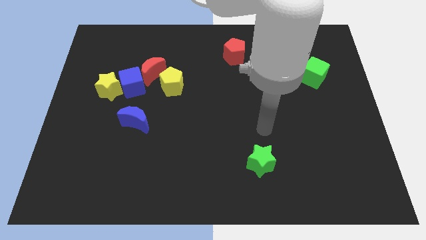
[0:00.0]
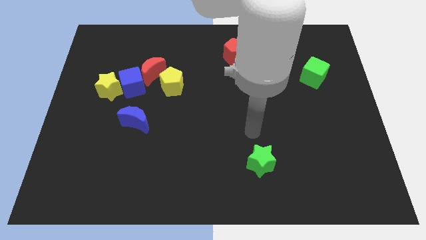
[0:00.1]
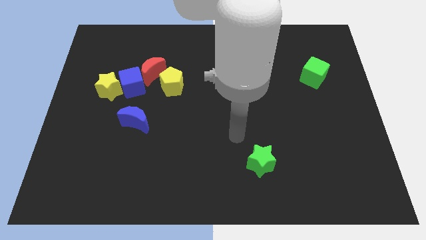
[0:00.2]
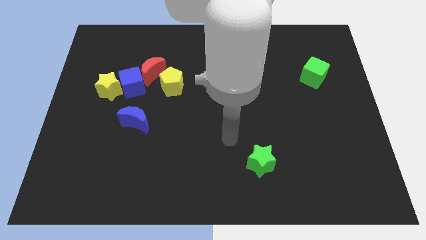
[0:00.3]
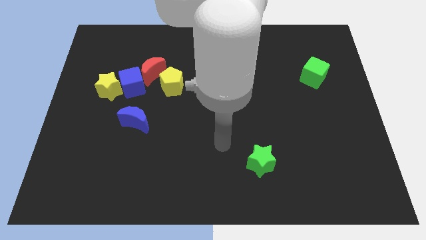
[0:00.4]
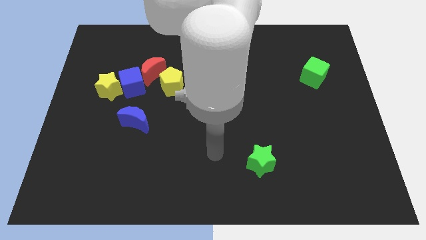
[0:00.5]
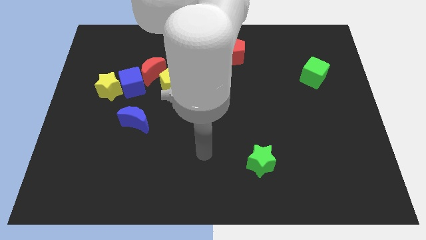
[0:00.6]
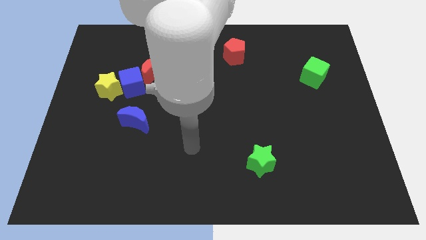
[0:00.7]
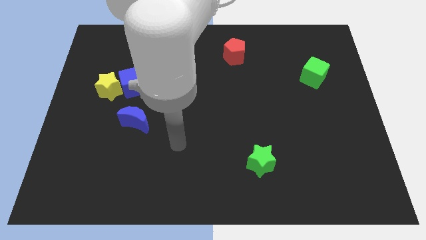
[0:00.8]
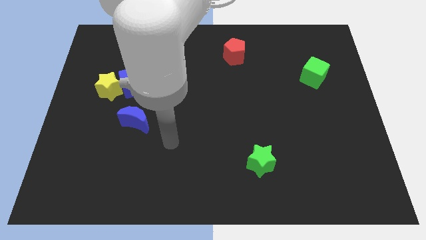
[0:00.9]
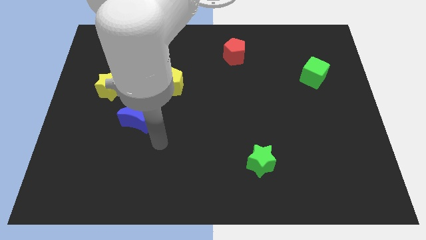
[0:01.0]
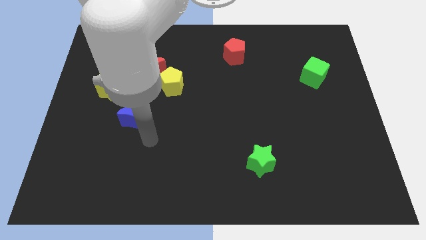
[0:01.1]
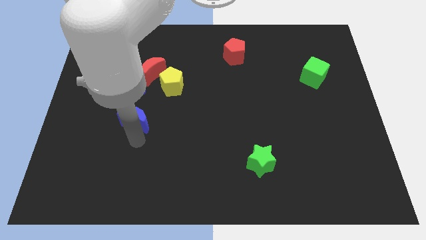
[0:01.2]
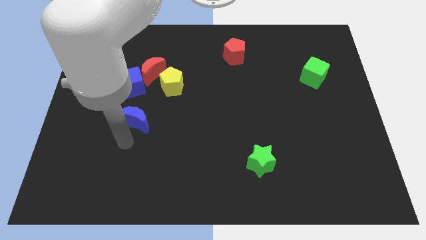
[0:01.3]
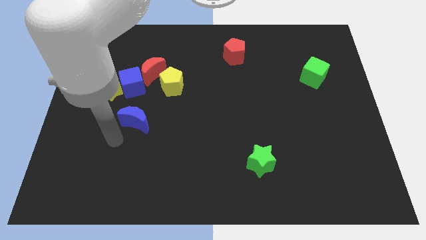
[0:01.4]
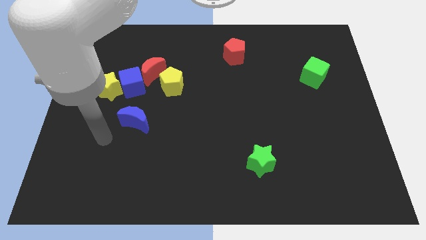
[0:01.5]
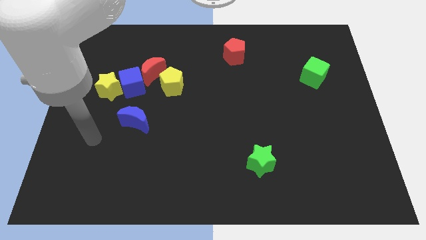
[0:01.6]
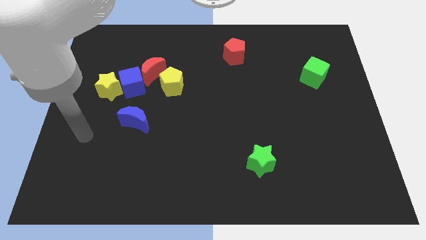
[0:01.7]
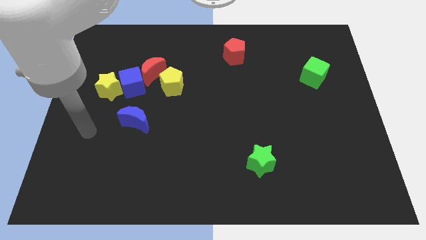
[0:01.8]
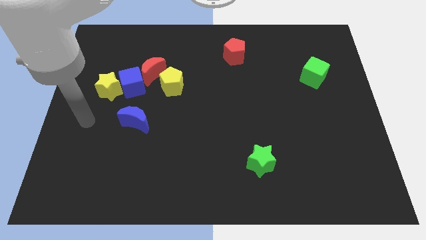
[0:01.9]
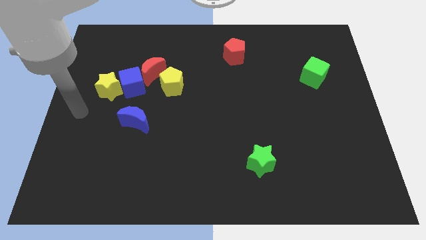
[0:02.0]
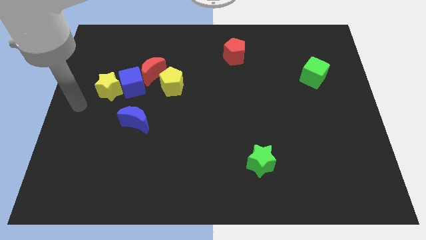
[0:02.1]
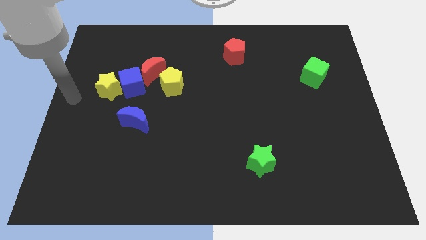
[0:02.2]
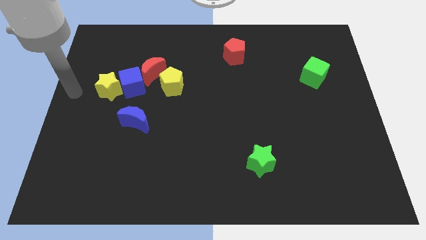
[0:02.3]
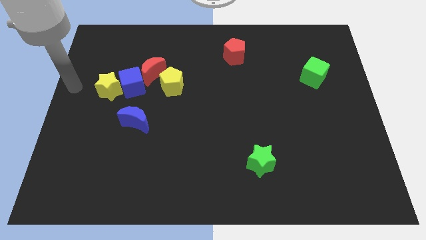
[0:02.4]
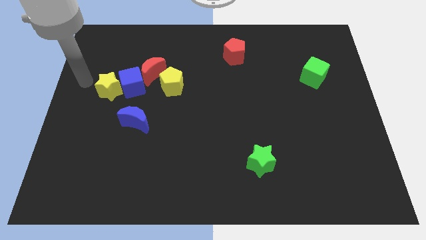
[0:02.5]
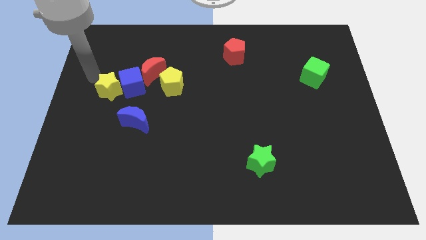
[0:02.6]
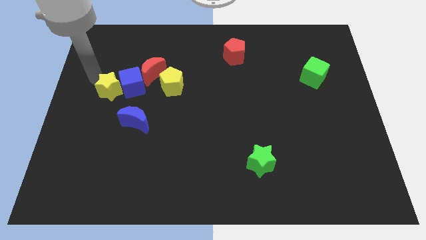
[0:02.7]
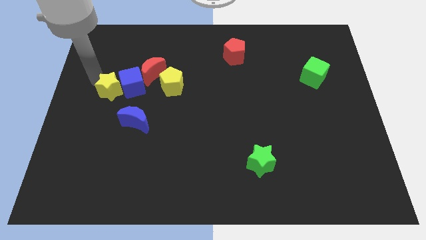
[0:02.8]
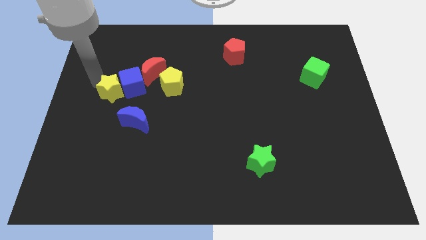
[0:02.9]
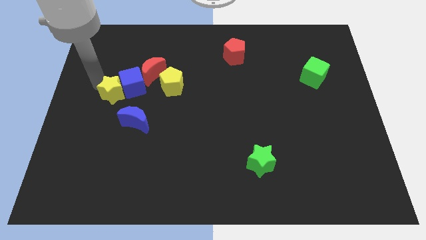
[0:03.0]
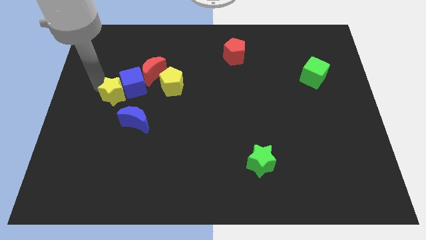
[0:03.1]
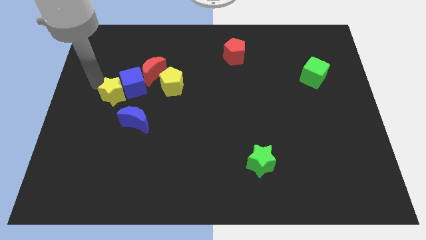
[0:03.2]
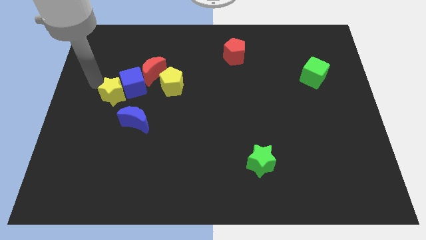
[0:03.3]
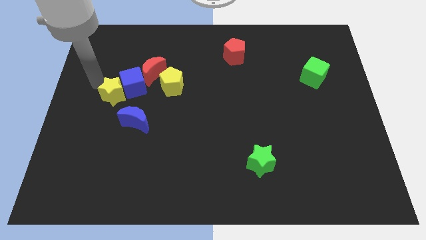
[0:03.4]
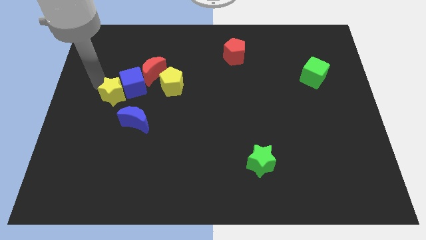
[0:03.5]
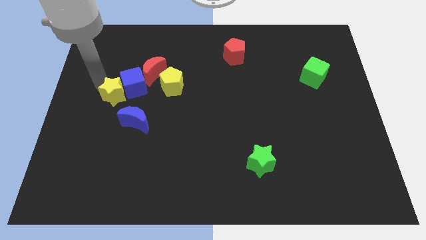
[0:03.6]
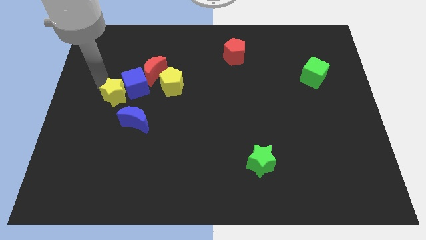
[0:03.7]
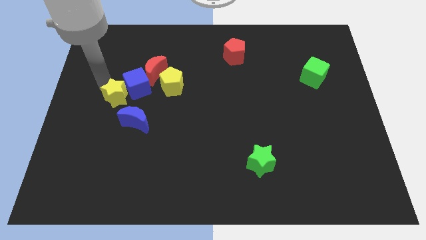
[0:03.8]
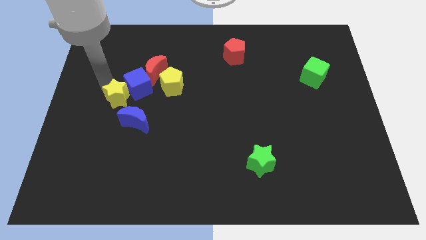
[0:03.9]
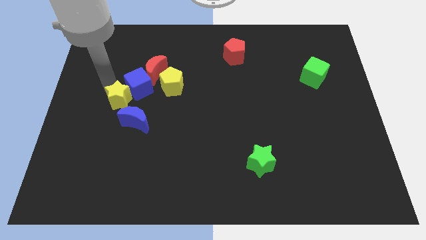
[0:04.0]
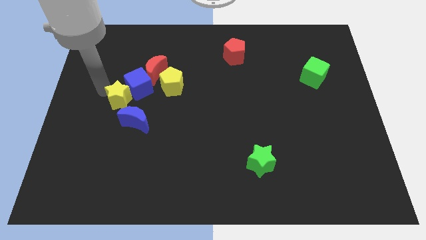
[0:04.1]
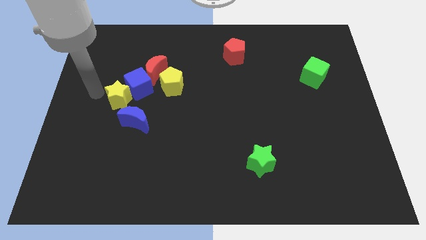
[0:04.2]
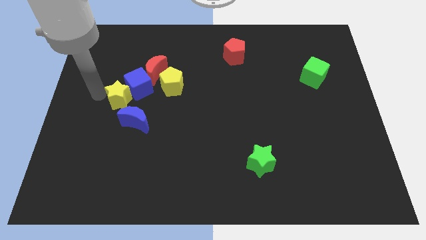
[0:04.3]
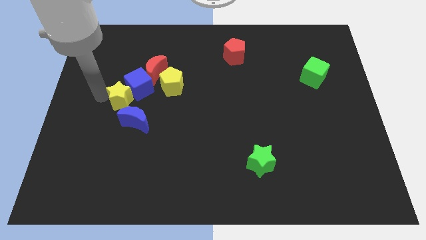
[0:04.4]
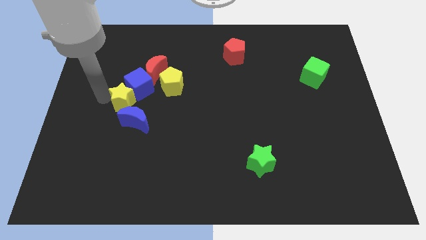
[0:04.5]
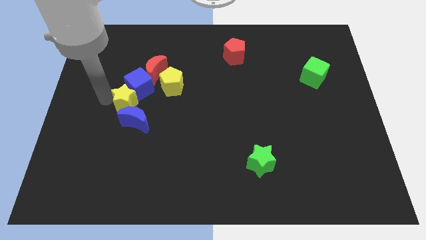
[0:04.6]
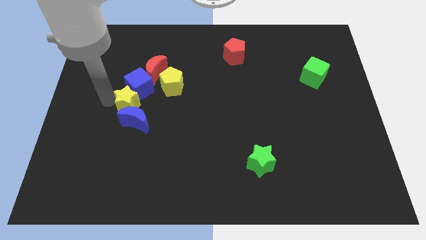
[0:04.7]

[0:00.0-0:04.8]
push the yellow star downwards and to the right a little bit

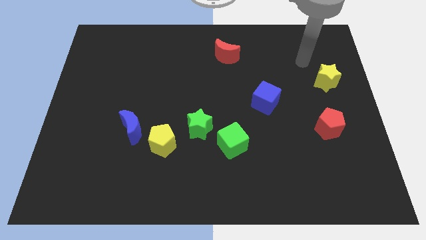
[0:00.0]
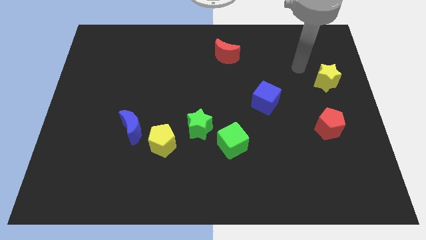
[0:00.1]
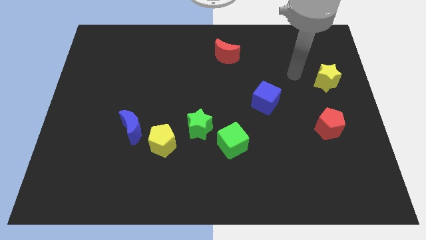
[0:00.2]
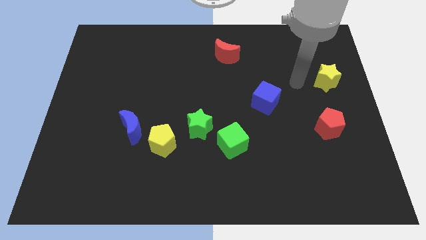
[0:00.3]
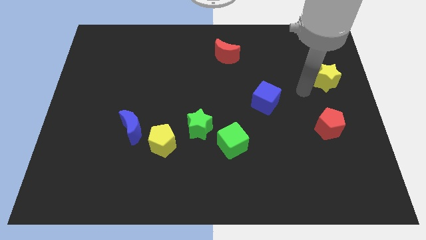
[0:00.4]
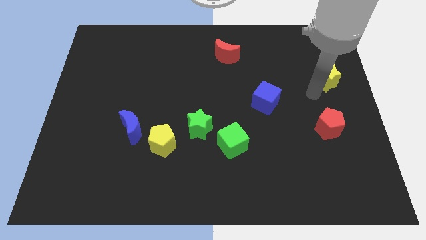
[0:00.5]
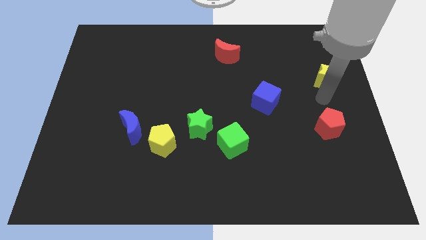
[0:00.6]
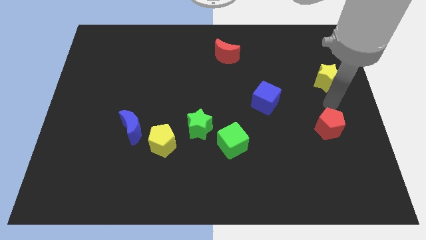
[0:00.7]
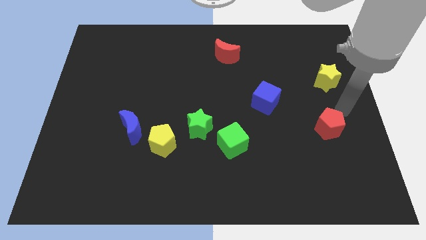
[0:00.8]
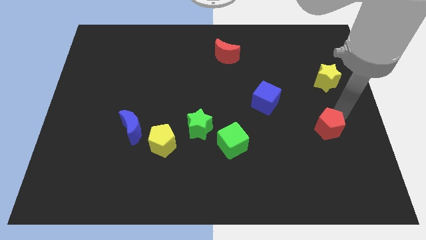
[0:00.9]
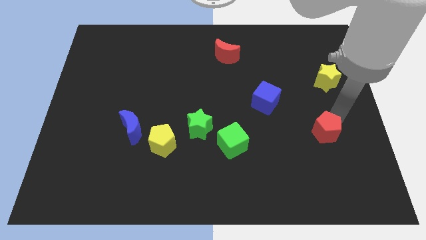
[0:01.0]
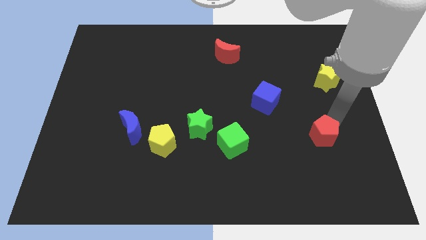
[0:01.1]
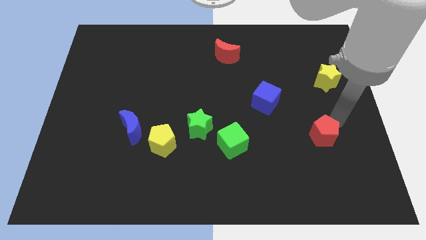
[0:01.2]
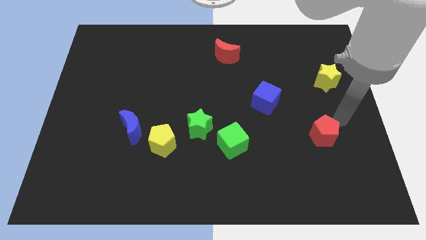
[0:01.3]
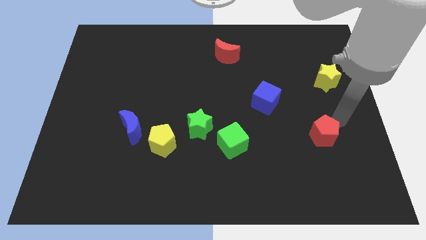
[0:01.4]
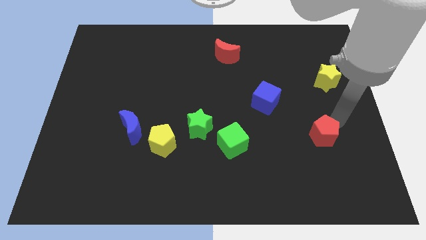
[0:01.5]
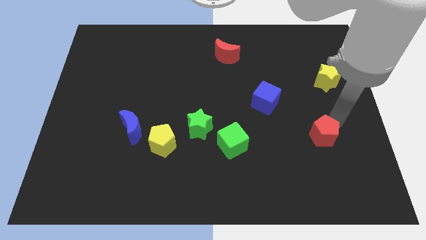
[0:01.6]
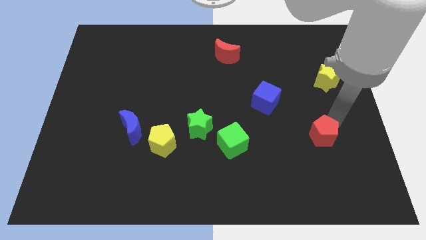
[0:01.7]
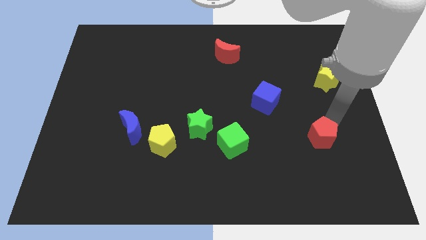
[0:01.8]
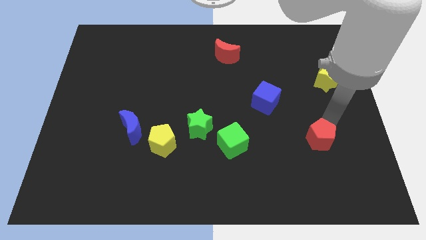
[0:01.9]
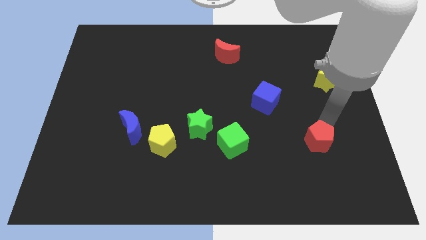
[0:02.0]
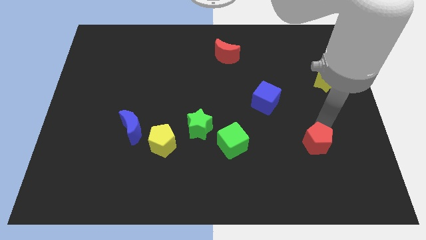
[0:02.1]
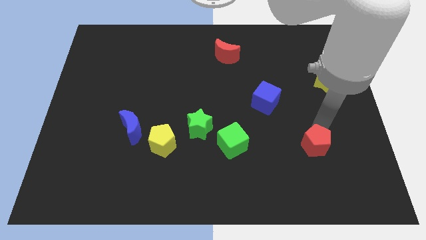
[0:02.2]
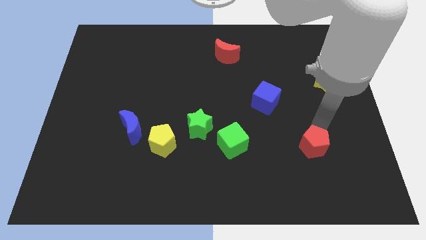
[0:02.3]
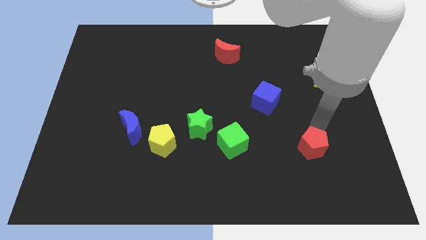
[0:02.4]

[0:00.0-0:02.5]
push the red pentagon downwards and to the left diagonally slightly

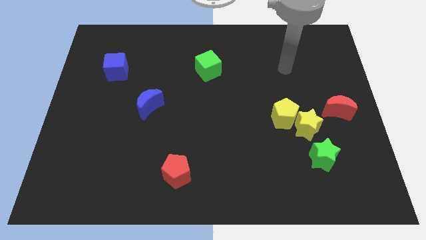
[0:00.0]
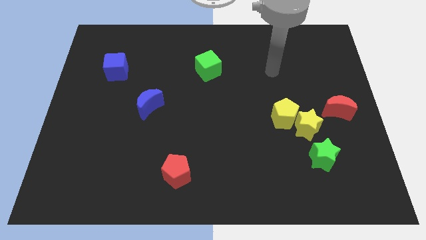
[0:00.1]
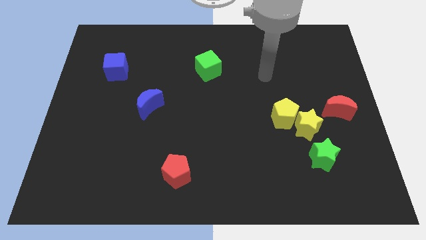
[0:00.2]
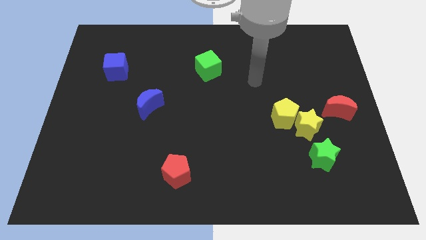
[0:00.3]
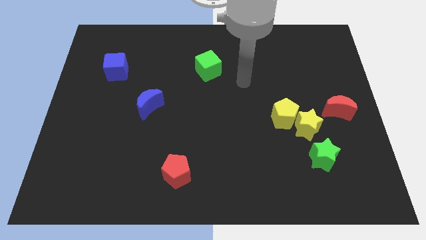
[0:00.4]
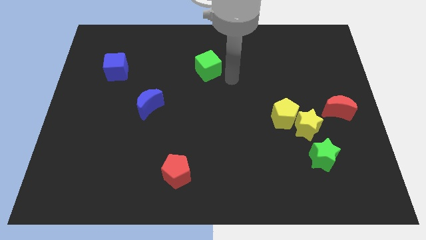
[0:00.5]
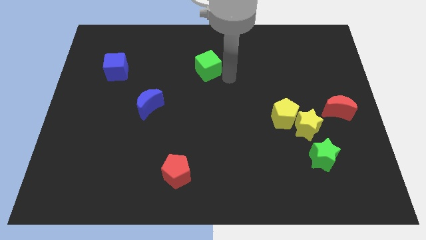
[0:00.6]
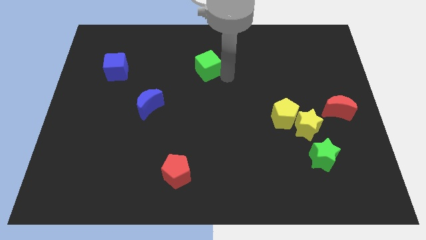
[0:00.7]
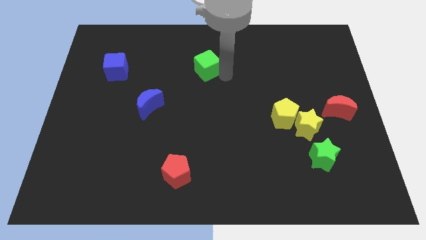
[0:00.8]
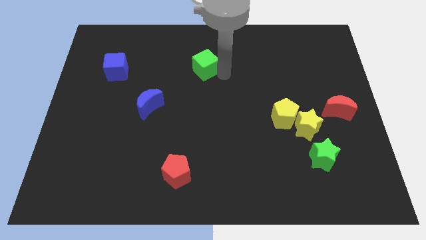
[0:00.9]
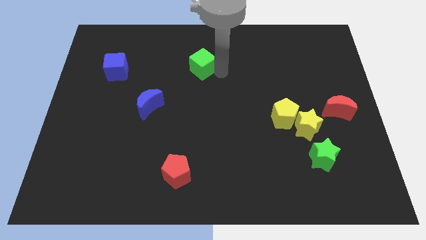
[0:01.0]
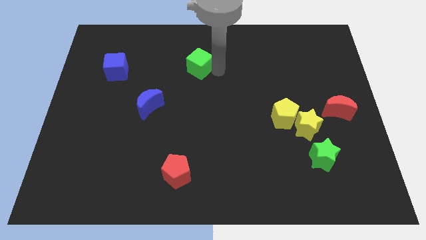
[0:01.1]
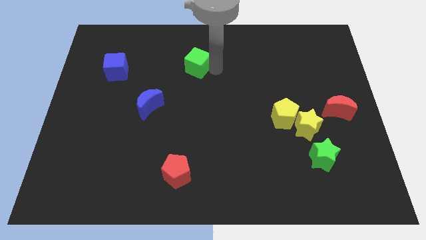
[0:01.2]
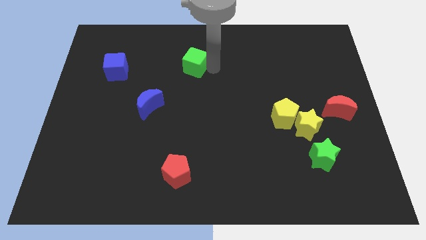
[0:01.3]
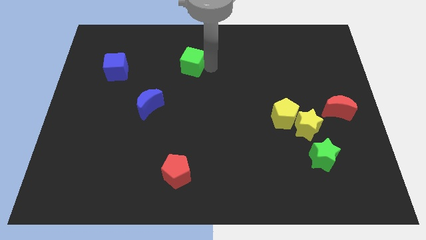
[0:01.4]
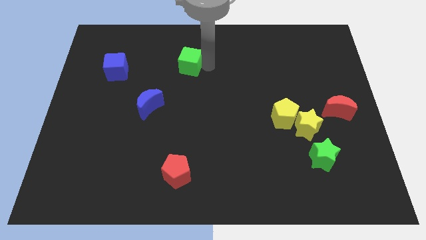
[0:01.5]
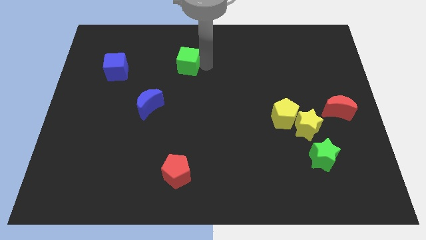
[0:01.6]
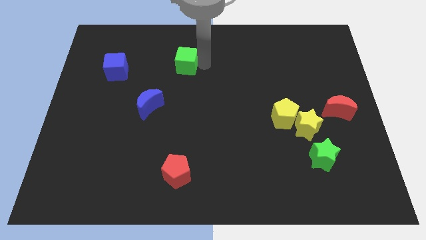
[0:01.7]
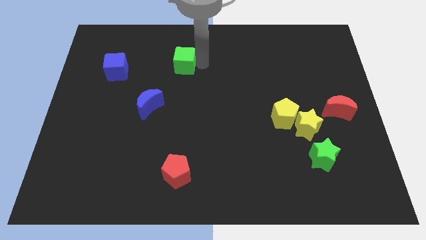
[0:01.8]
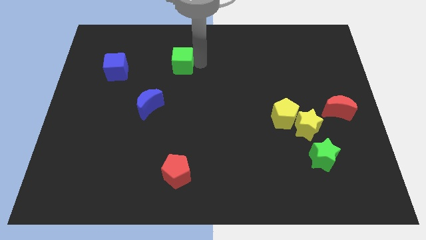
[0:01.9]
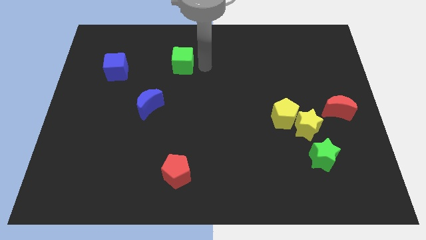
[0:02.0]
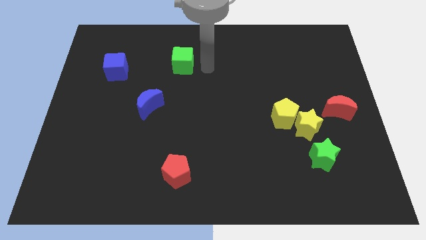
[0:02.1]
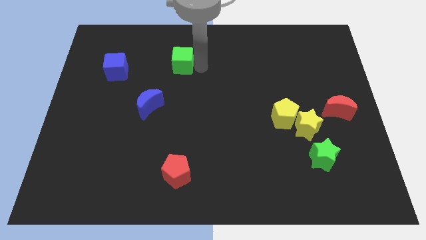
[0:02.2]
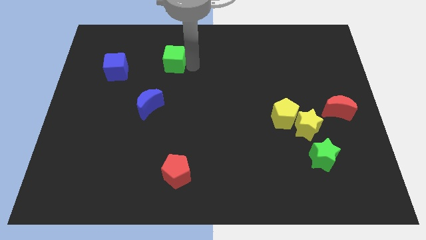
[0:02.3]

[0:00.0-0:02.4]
move the green cube left a little
